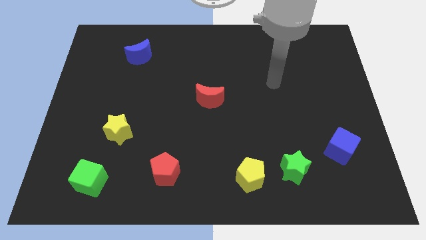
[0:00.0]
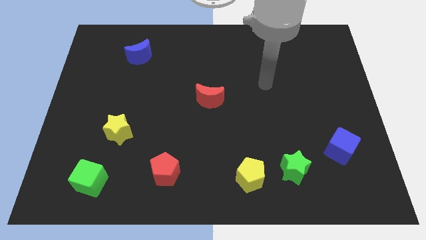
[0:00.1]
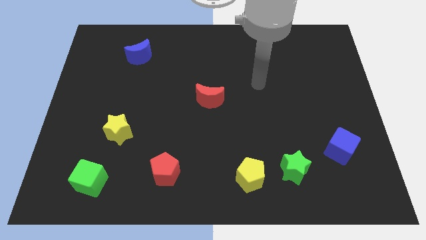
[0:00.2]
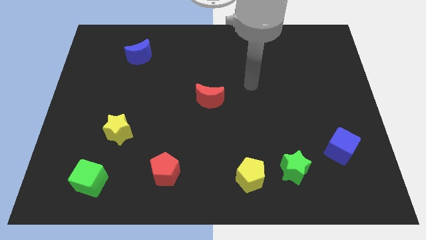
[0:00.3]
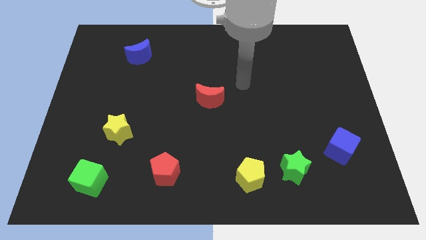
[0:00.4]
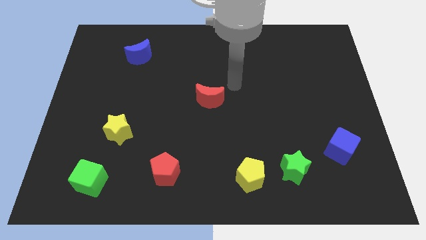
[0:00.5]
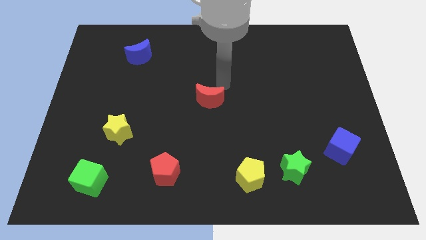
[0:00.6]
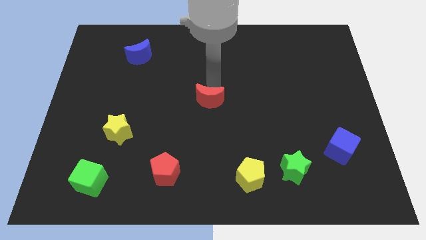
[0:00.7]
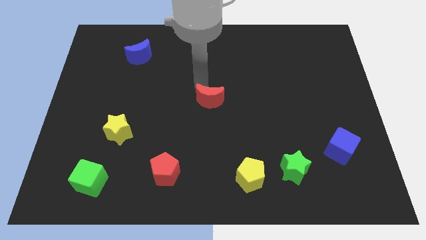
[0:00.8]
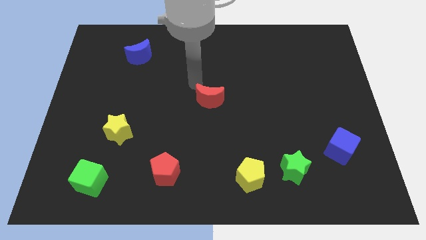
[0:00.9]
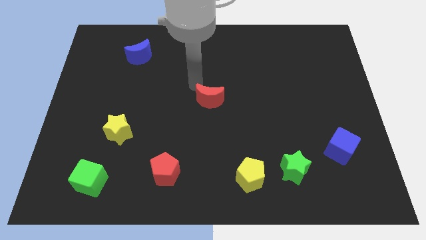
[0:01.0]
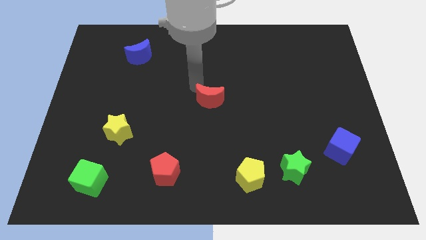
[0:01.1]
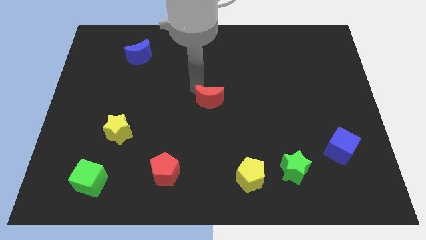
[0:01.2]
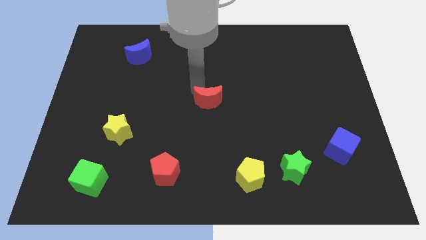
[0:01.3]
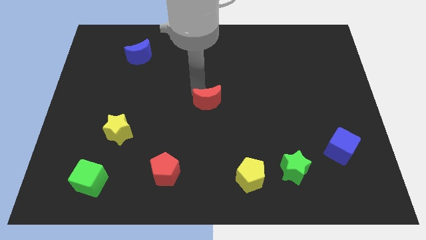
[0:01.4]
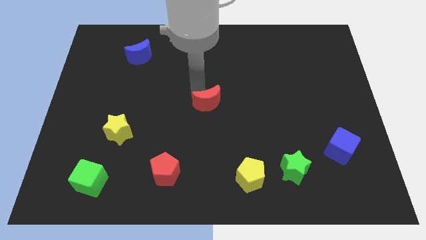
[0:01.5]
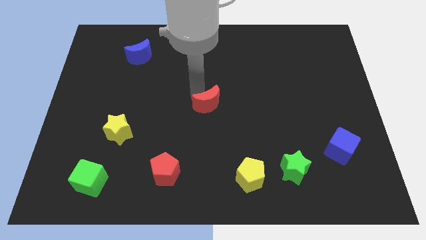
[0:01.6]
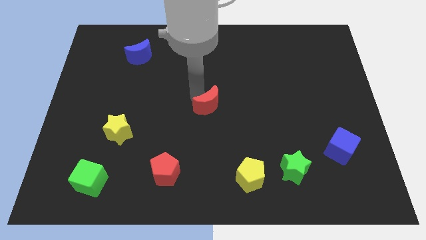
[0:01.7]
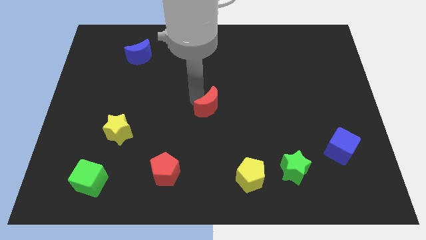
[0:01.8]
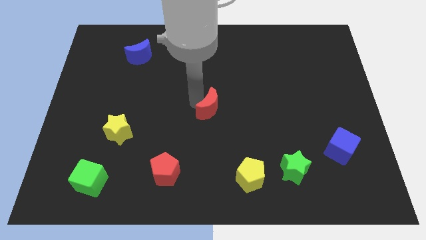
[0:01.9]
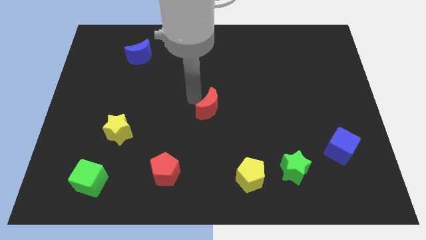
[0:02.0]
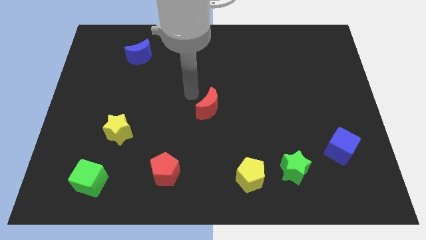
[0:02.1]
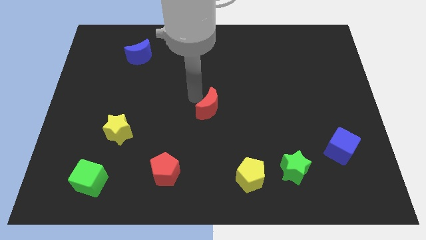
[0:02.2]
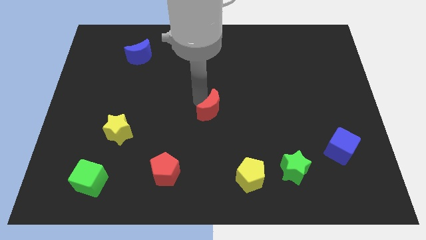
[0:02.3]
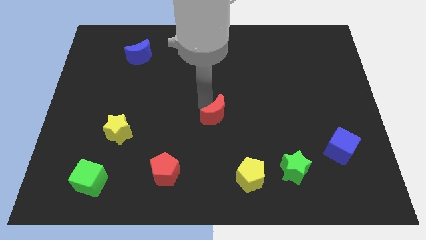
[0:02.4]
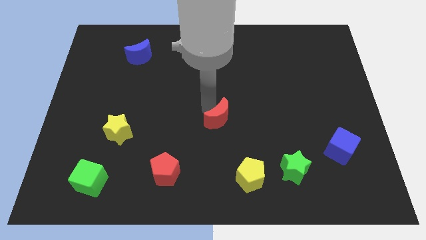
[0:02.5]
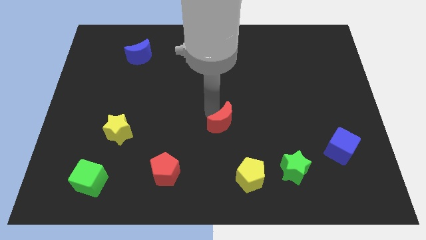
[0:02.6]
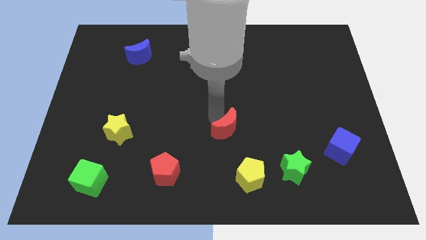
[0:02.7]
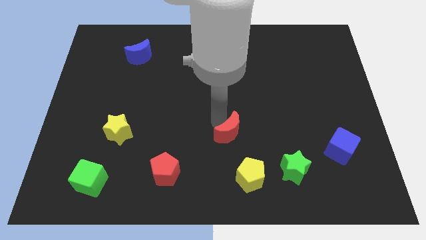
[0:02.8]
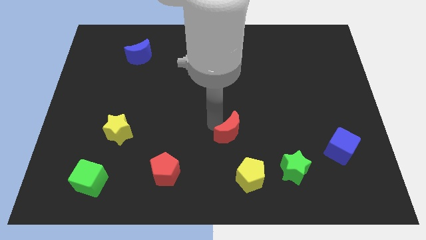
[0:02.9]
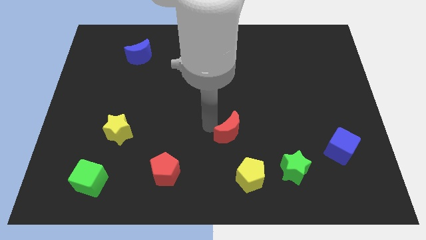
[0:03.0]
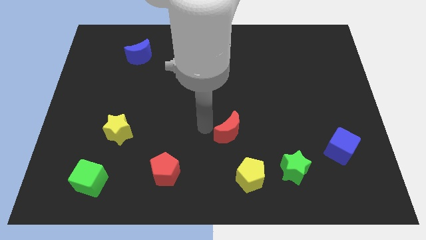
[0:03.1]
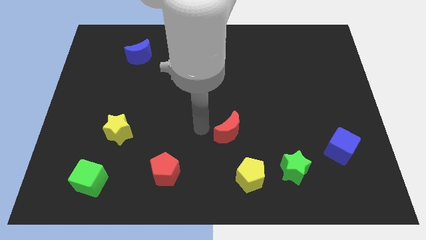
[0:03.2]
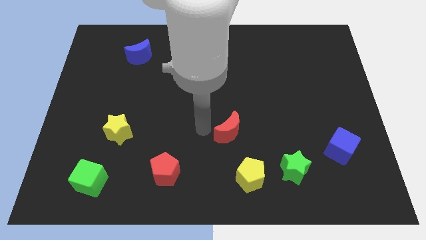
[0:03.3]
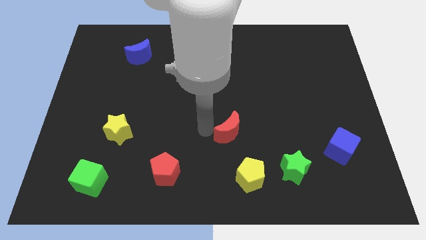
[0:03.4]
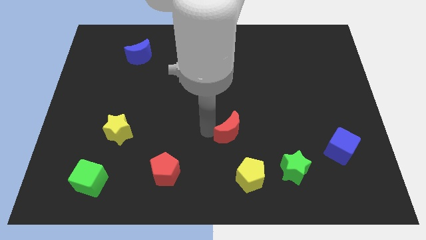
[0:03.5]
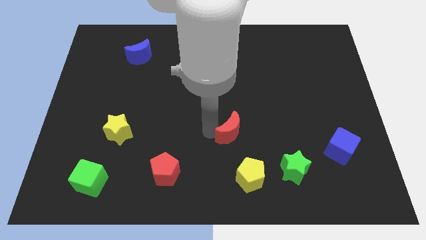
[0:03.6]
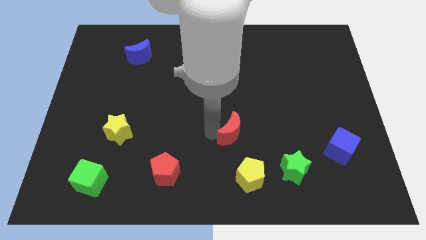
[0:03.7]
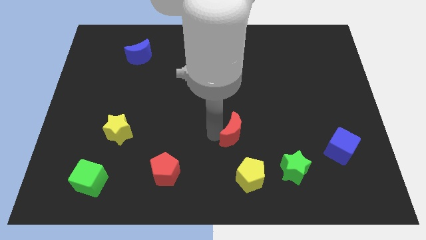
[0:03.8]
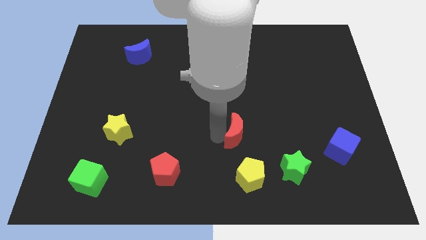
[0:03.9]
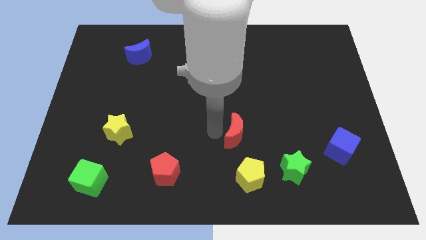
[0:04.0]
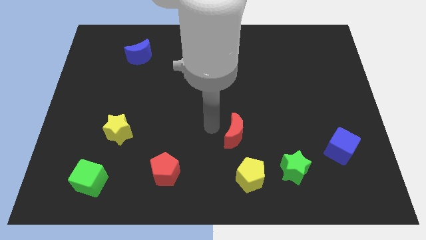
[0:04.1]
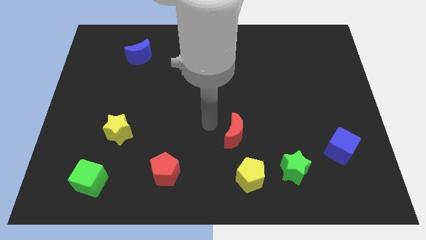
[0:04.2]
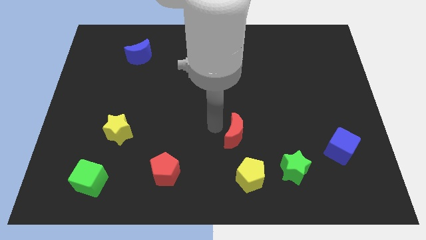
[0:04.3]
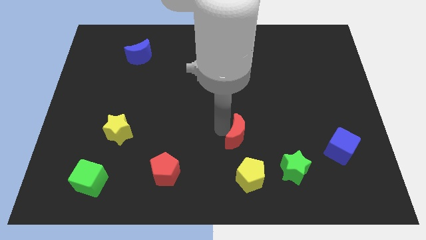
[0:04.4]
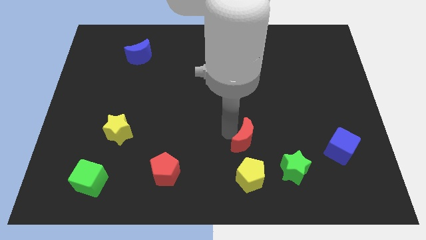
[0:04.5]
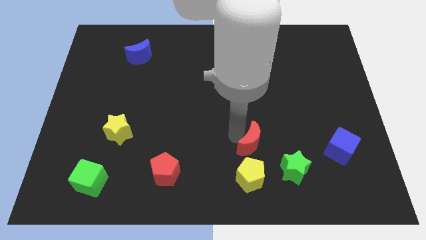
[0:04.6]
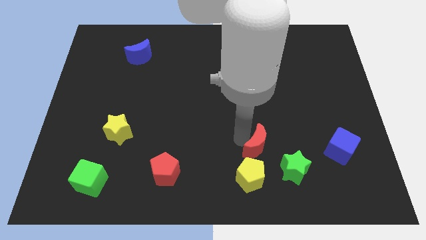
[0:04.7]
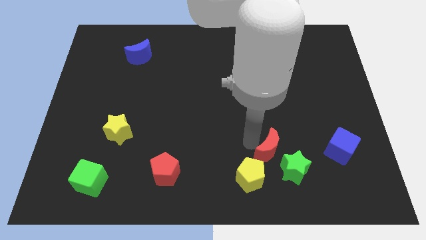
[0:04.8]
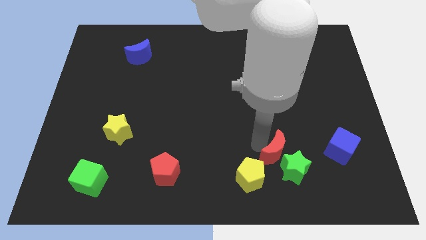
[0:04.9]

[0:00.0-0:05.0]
move the red moon to the green star

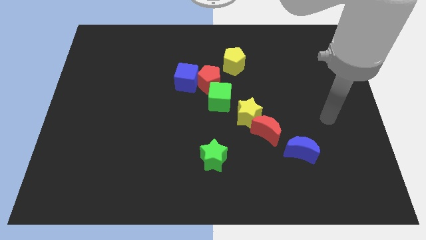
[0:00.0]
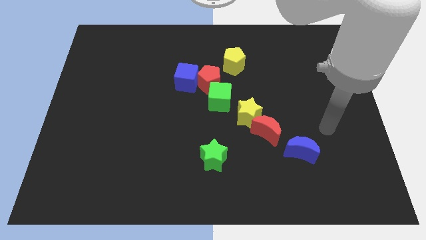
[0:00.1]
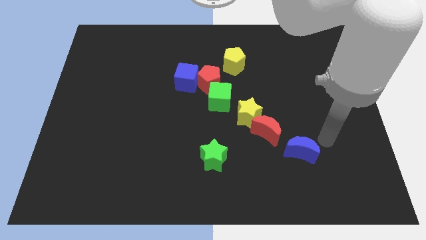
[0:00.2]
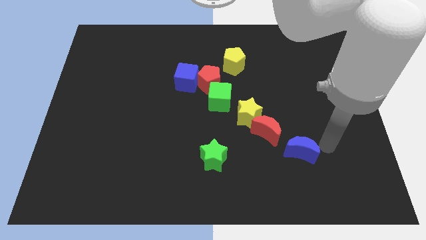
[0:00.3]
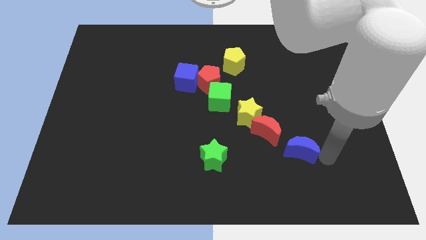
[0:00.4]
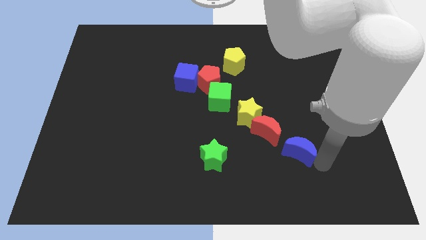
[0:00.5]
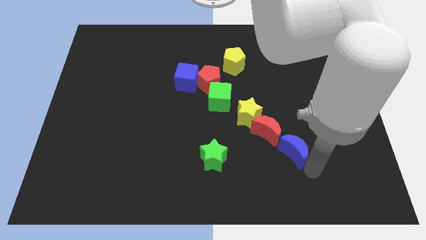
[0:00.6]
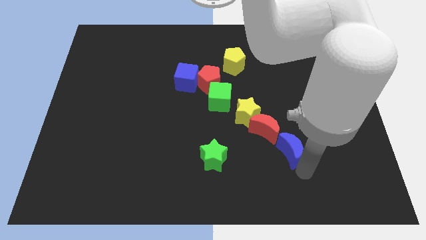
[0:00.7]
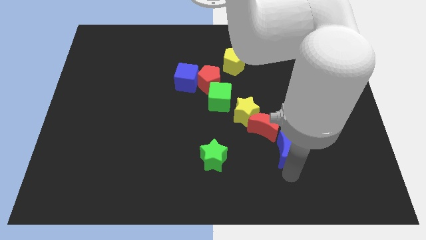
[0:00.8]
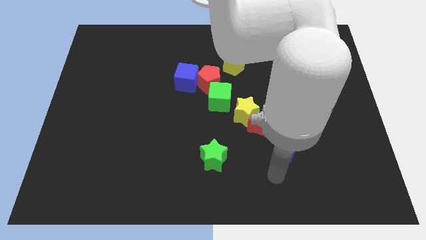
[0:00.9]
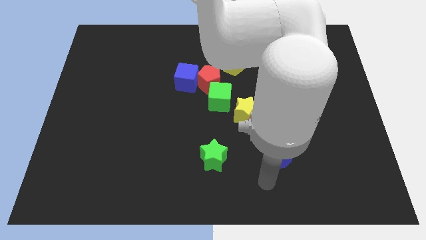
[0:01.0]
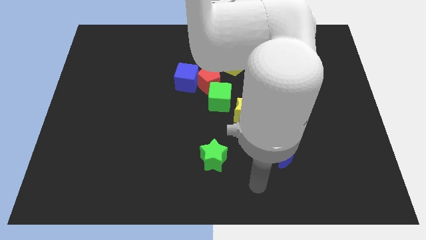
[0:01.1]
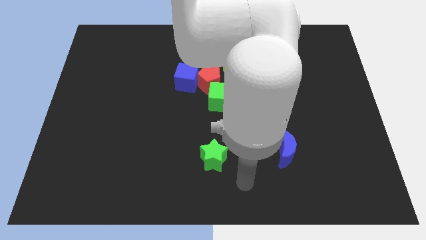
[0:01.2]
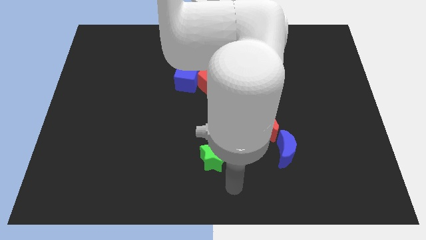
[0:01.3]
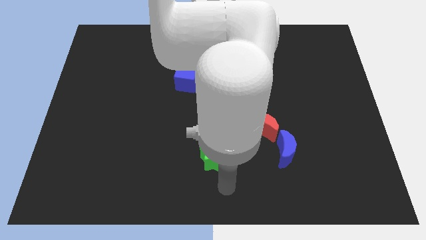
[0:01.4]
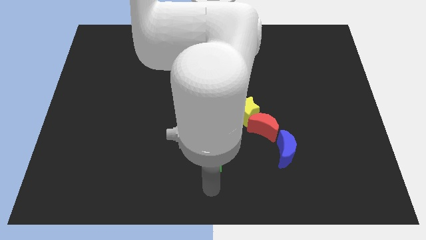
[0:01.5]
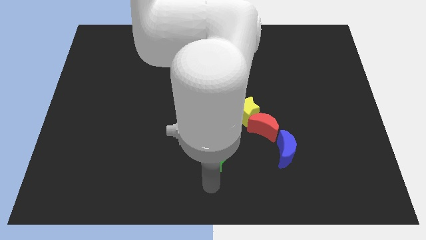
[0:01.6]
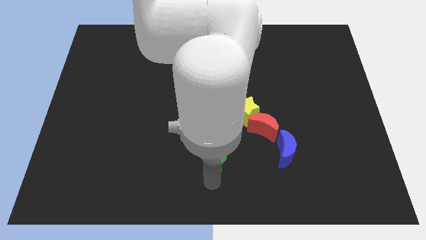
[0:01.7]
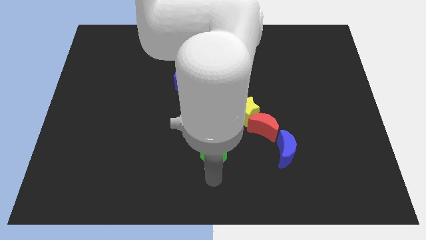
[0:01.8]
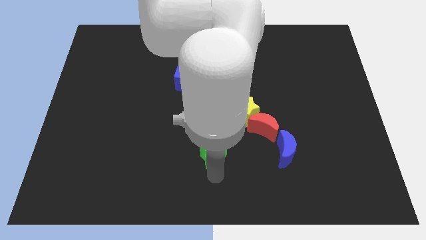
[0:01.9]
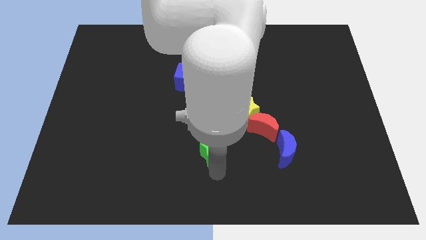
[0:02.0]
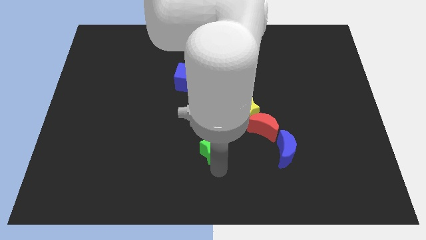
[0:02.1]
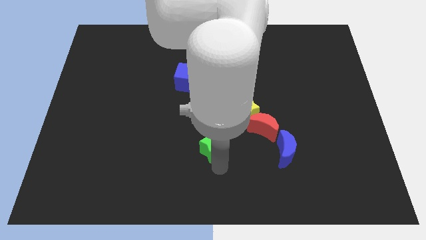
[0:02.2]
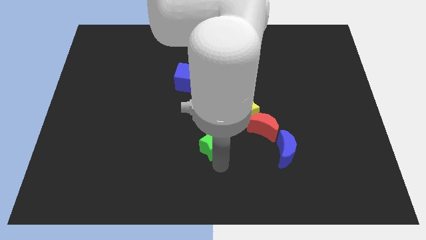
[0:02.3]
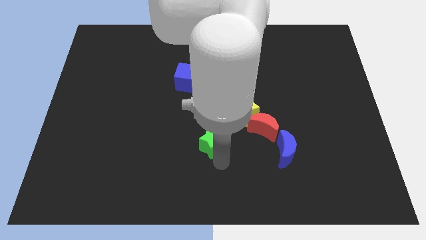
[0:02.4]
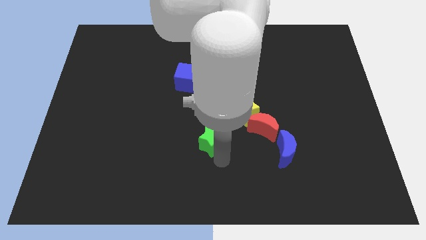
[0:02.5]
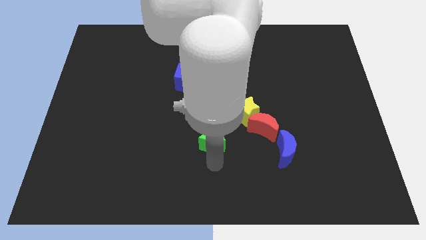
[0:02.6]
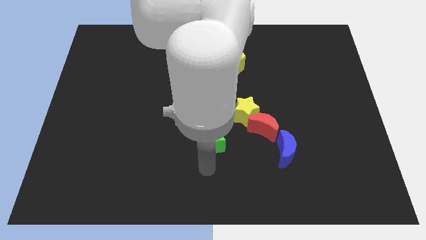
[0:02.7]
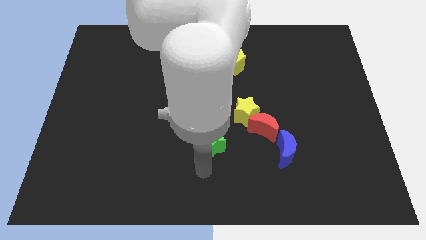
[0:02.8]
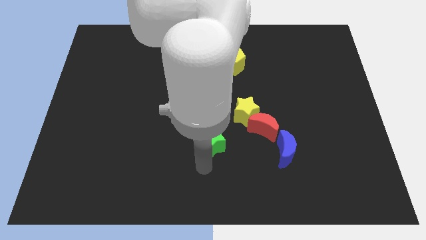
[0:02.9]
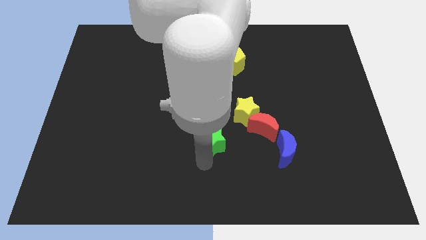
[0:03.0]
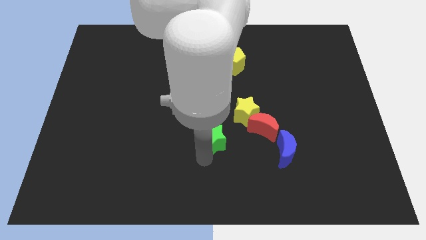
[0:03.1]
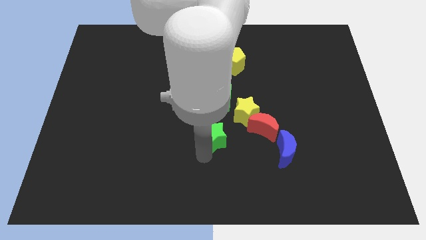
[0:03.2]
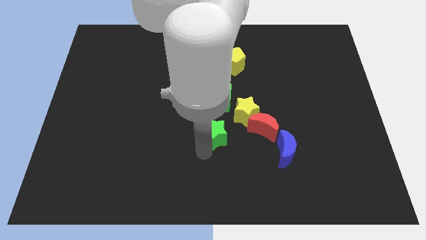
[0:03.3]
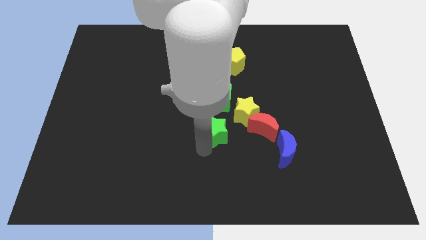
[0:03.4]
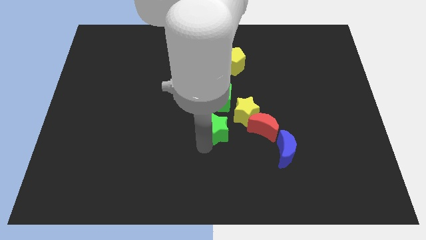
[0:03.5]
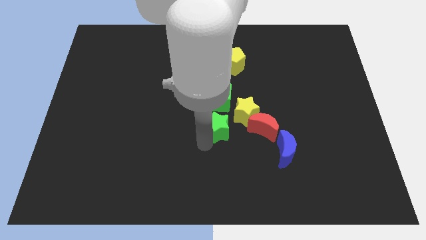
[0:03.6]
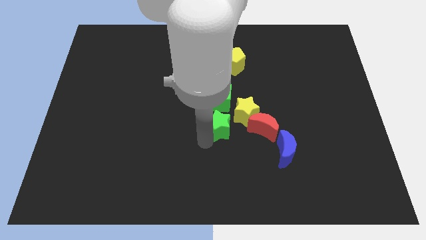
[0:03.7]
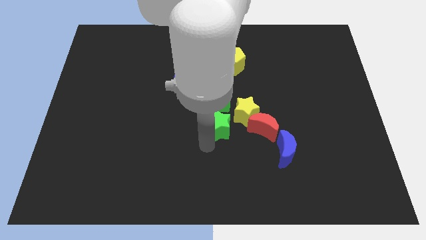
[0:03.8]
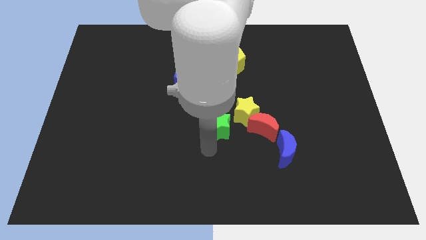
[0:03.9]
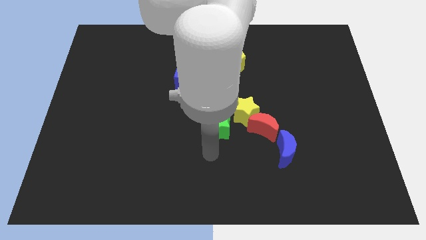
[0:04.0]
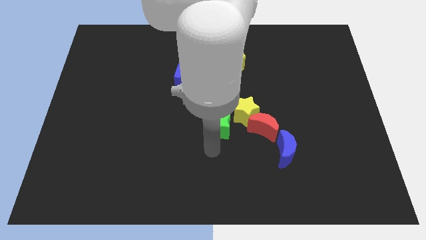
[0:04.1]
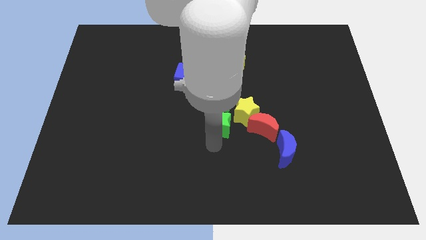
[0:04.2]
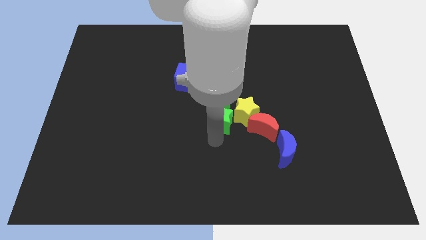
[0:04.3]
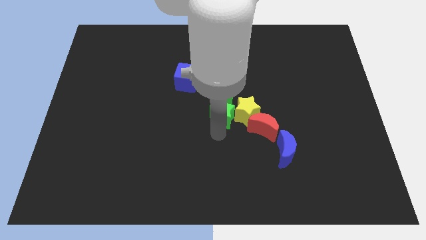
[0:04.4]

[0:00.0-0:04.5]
slide the green star next to the green cube
